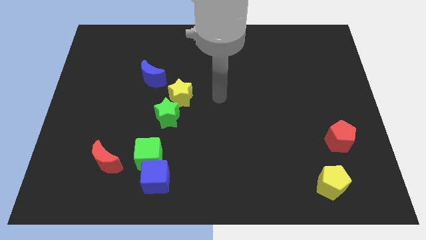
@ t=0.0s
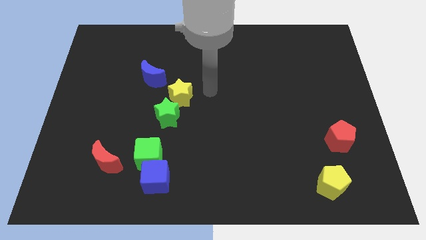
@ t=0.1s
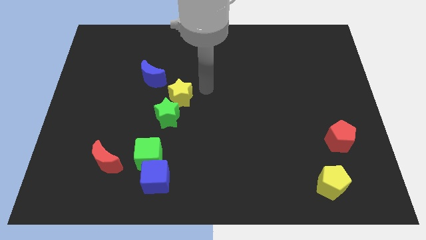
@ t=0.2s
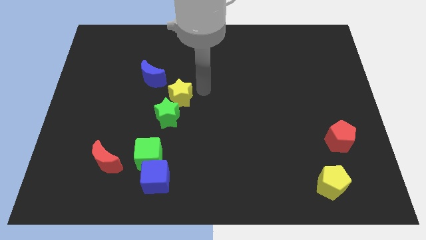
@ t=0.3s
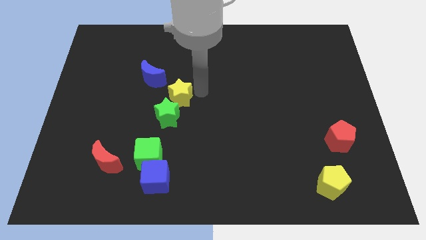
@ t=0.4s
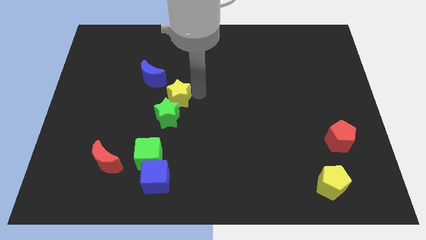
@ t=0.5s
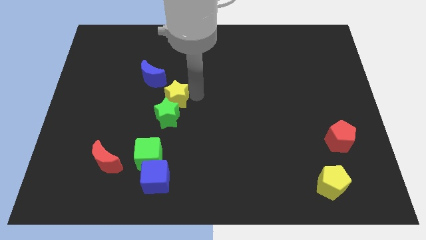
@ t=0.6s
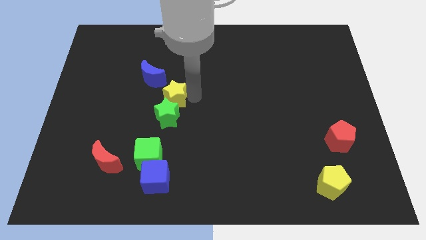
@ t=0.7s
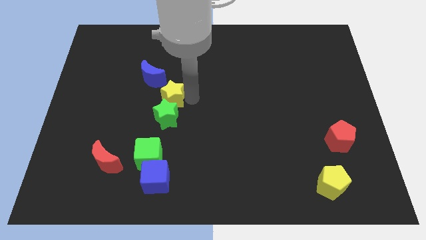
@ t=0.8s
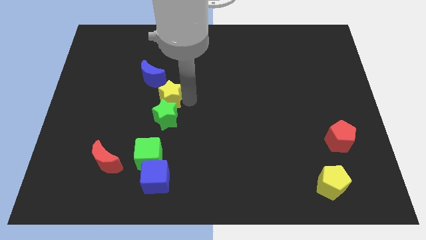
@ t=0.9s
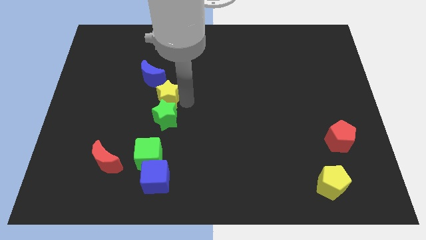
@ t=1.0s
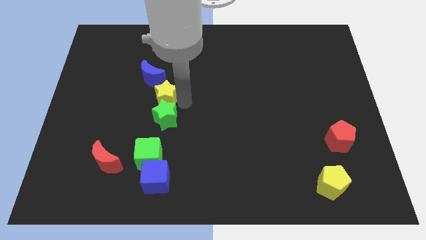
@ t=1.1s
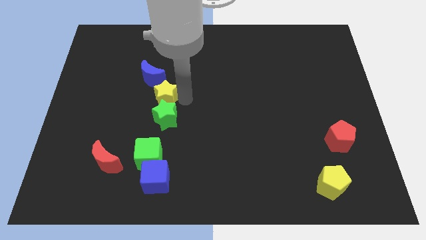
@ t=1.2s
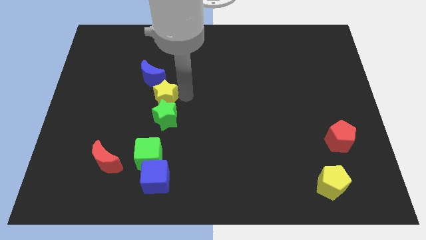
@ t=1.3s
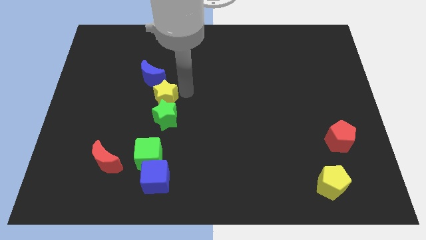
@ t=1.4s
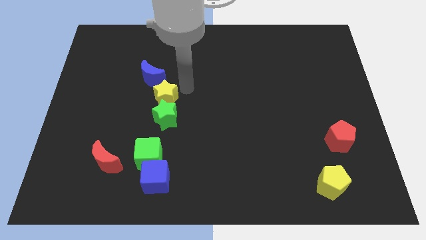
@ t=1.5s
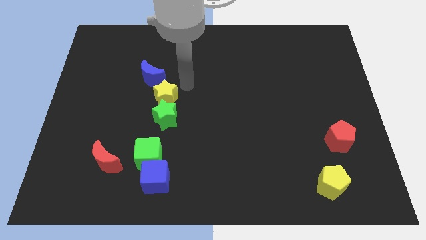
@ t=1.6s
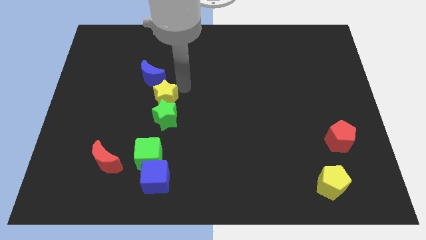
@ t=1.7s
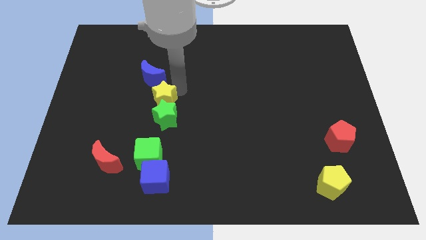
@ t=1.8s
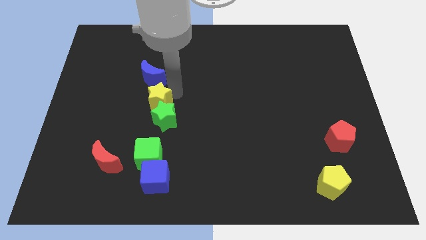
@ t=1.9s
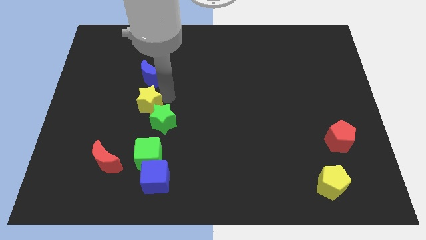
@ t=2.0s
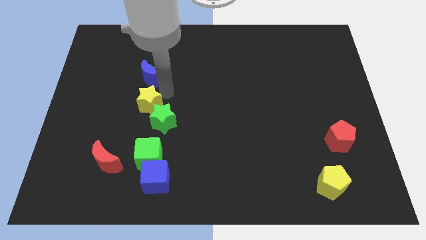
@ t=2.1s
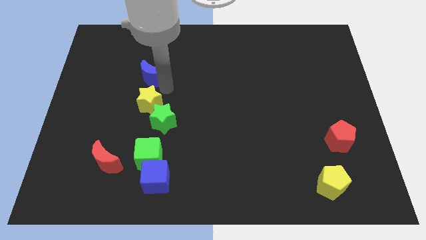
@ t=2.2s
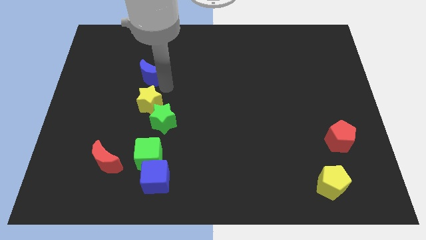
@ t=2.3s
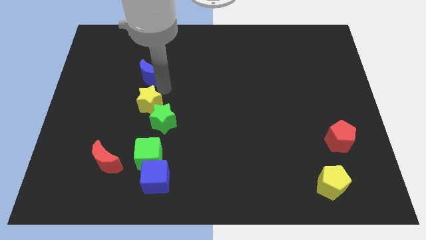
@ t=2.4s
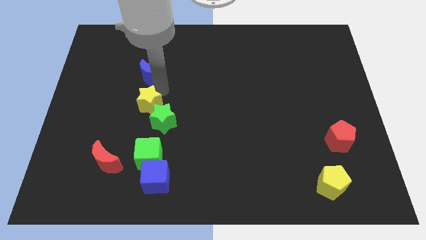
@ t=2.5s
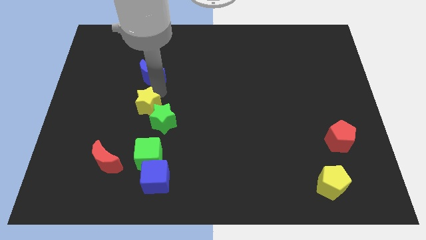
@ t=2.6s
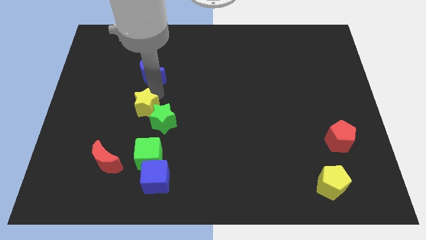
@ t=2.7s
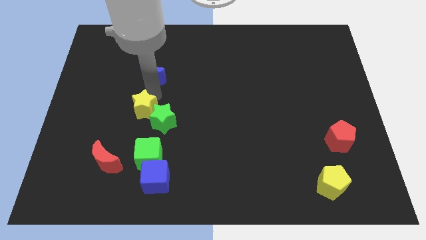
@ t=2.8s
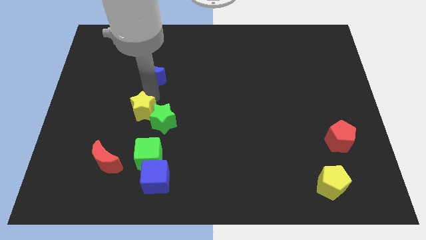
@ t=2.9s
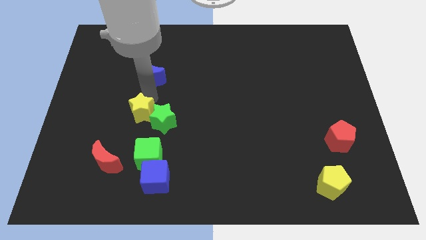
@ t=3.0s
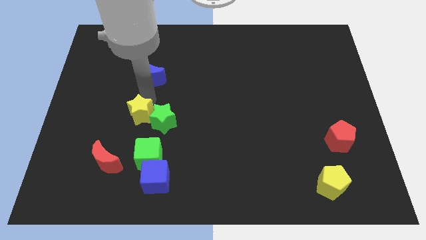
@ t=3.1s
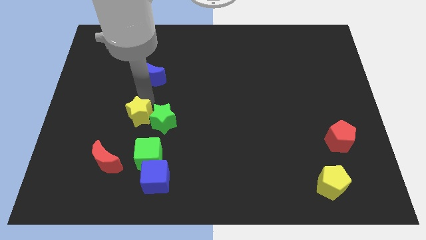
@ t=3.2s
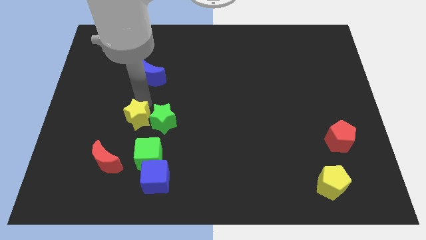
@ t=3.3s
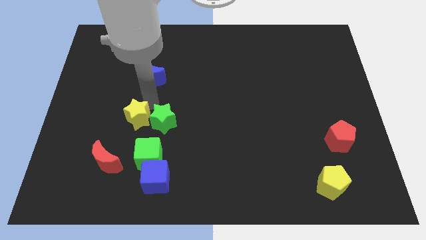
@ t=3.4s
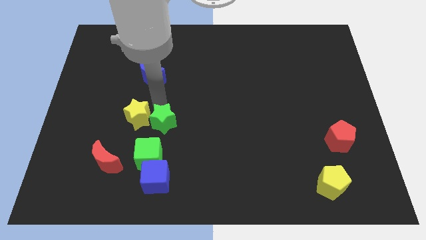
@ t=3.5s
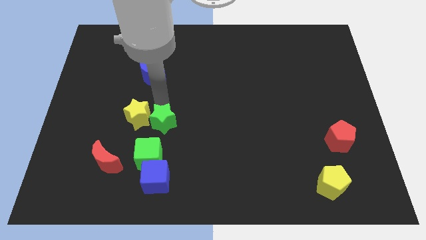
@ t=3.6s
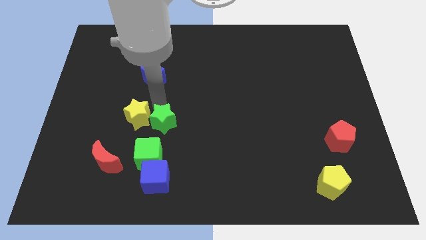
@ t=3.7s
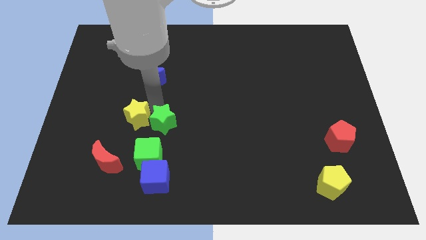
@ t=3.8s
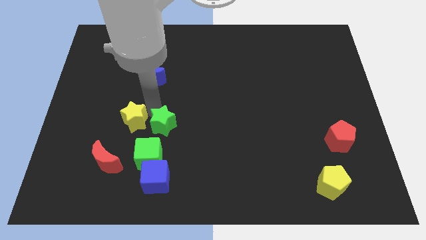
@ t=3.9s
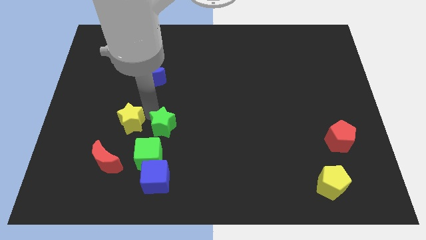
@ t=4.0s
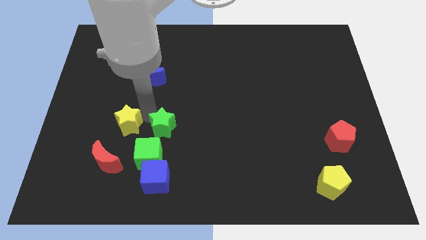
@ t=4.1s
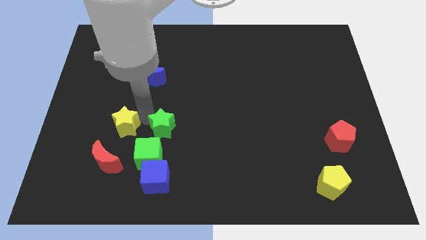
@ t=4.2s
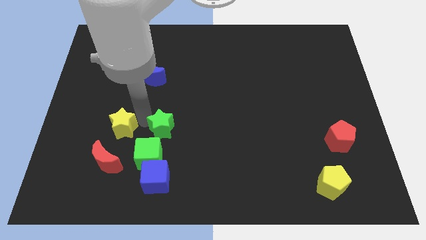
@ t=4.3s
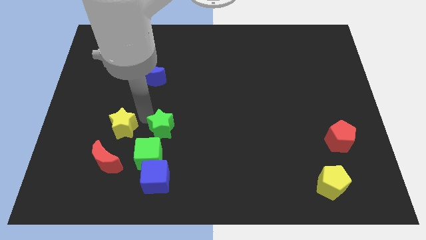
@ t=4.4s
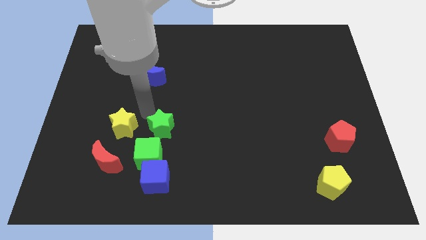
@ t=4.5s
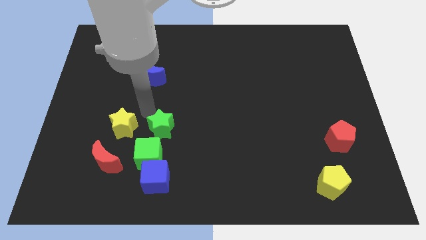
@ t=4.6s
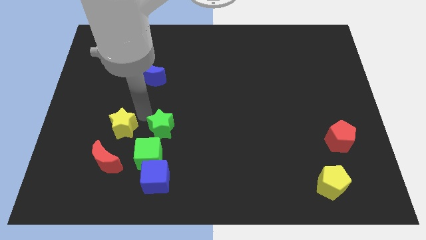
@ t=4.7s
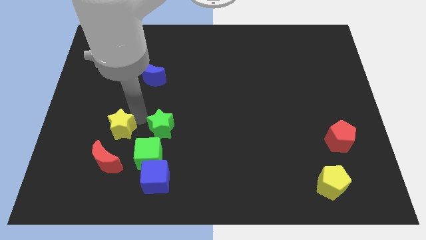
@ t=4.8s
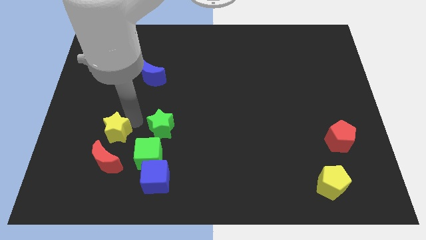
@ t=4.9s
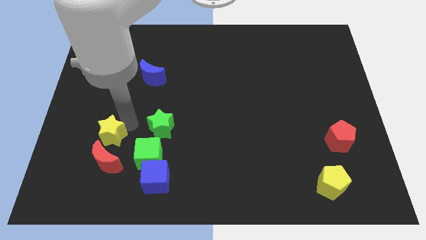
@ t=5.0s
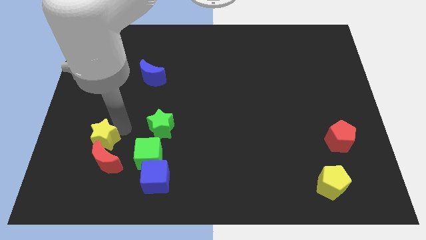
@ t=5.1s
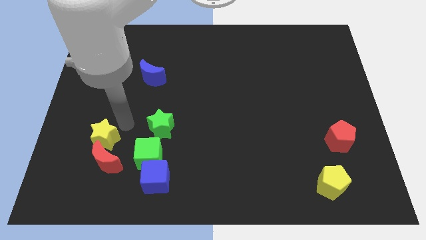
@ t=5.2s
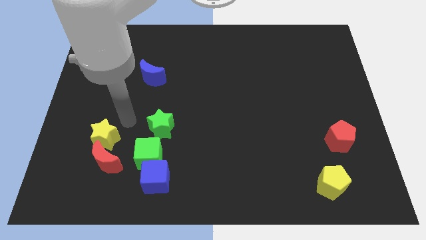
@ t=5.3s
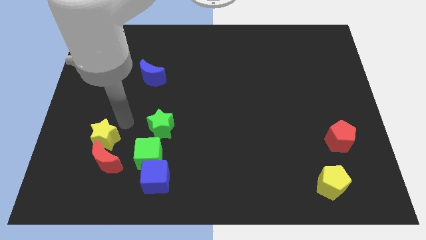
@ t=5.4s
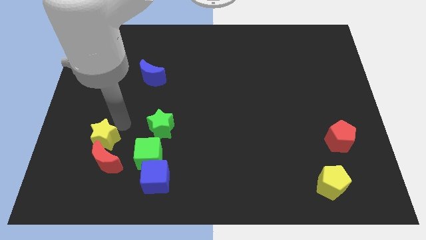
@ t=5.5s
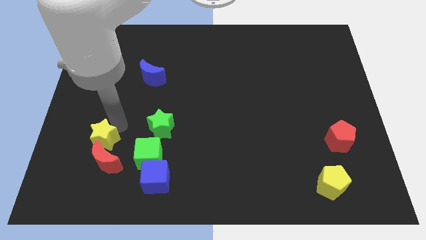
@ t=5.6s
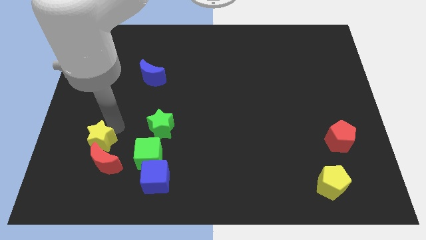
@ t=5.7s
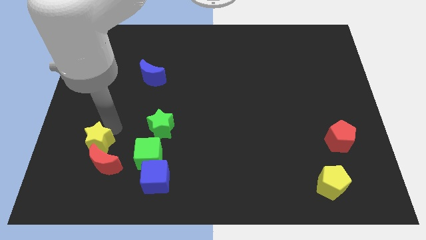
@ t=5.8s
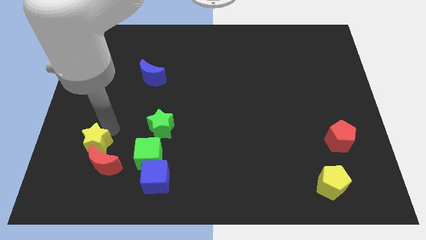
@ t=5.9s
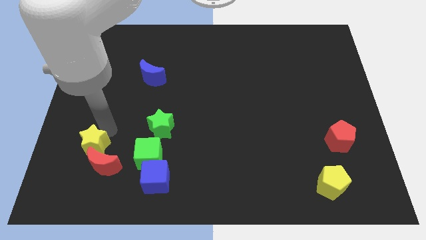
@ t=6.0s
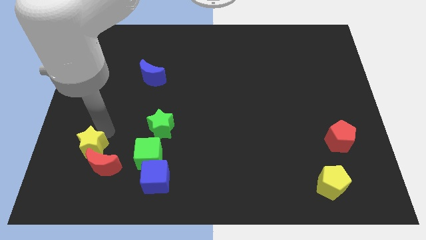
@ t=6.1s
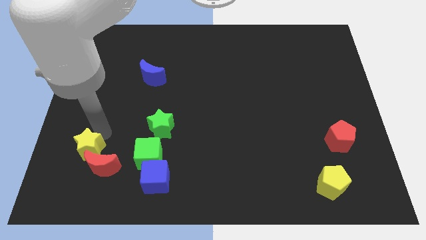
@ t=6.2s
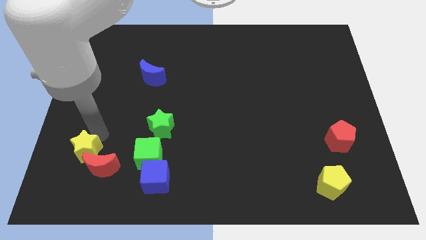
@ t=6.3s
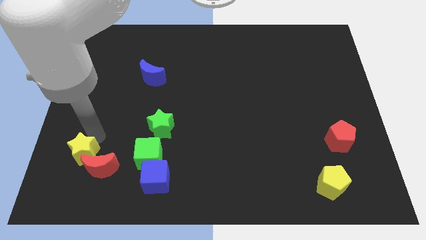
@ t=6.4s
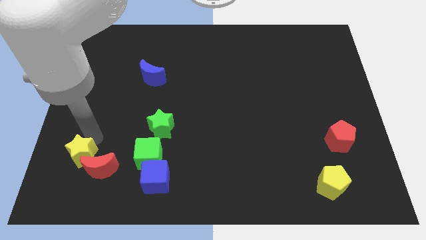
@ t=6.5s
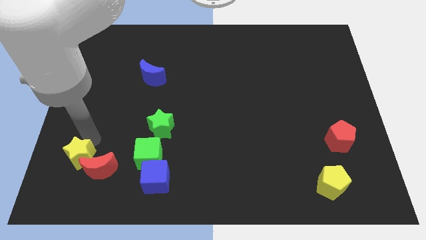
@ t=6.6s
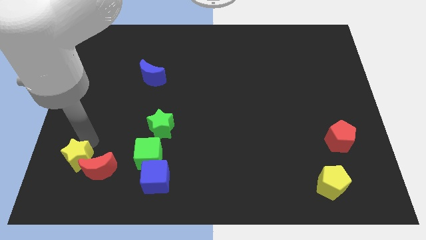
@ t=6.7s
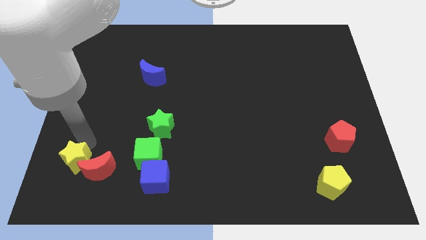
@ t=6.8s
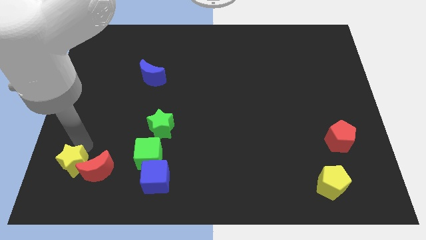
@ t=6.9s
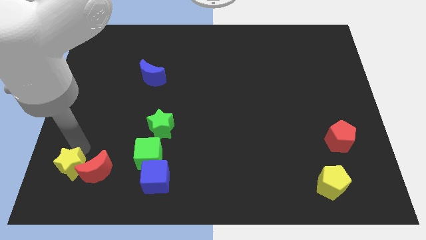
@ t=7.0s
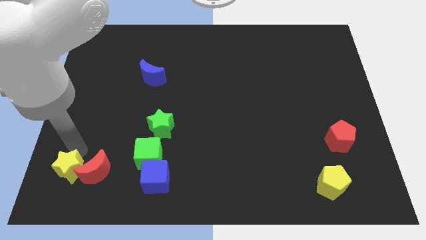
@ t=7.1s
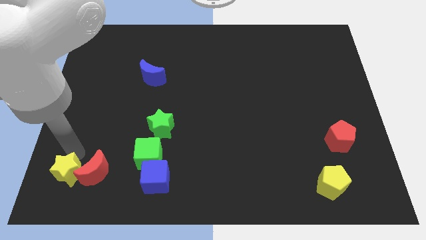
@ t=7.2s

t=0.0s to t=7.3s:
slide the yellow star to the bottom left of the board
